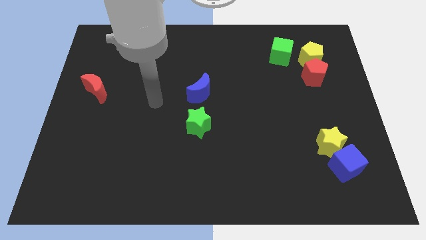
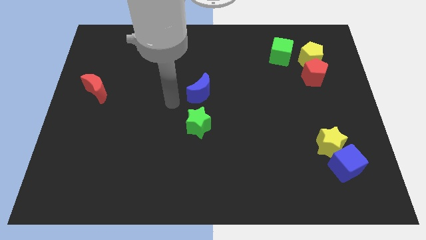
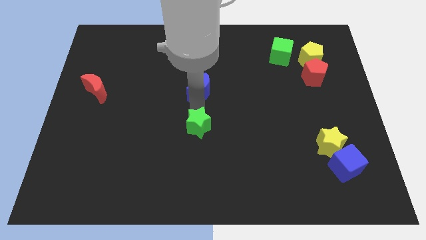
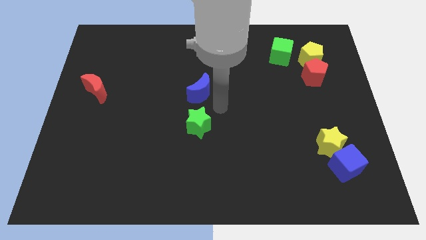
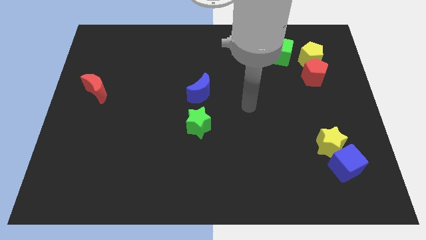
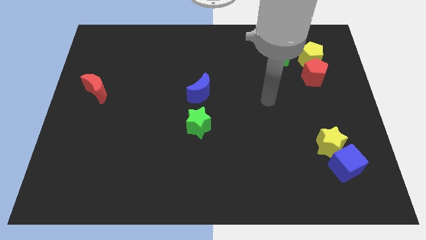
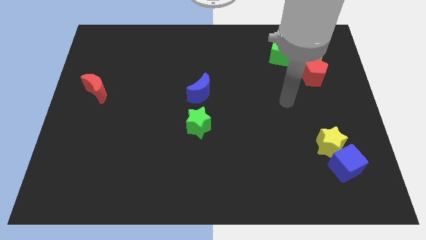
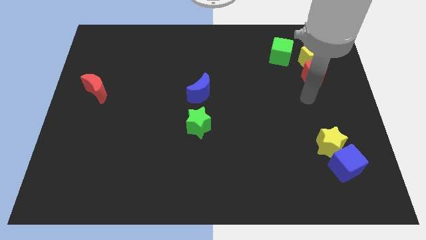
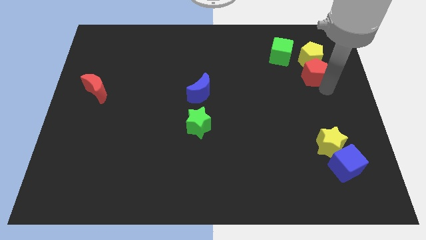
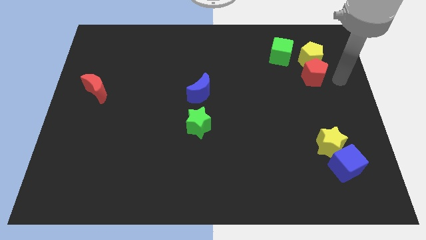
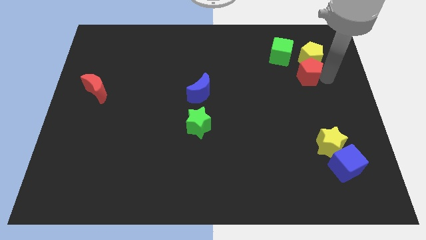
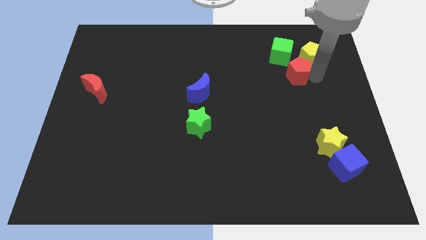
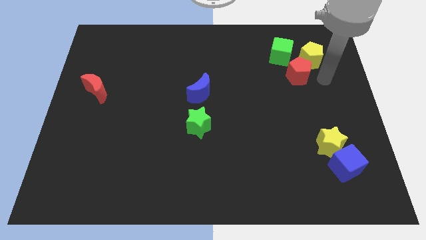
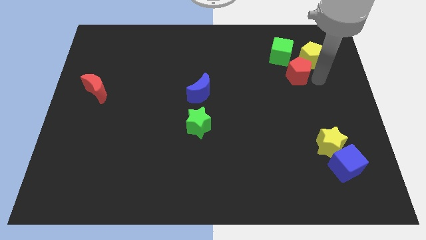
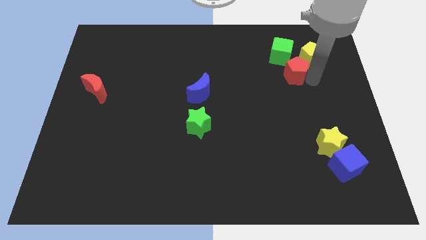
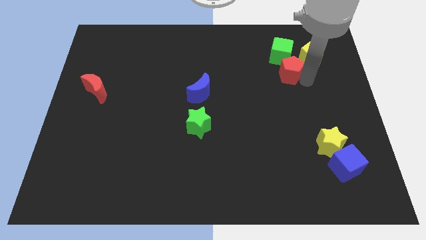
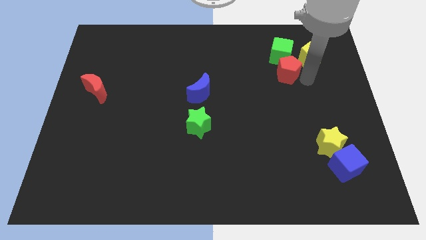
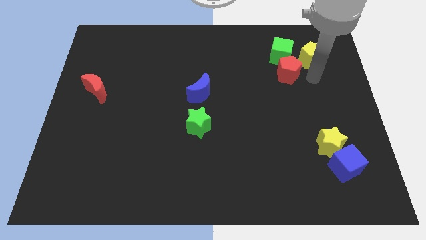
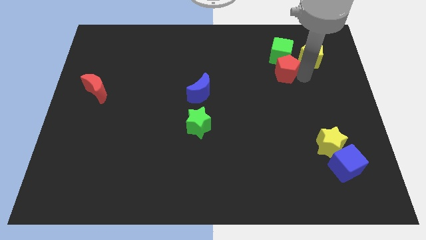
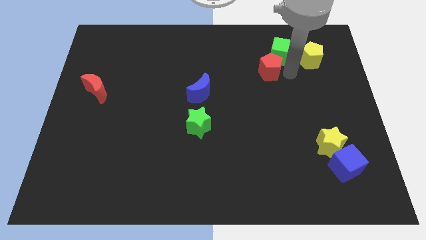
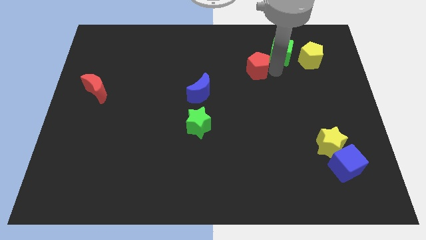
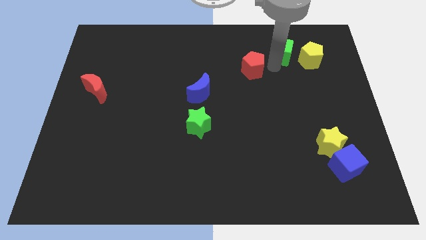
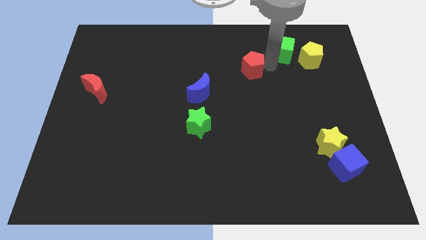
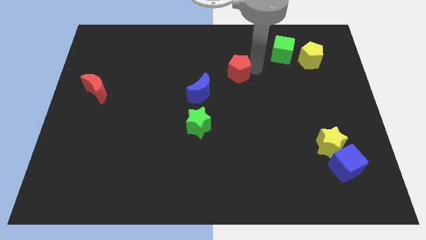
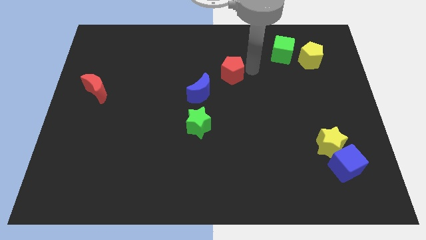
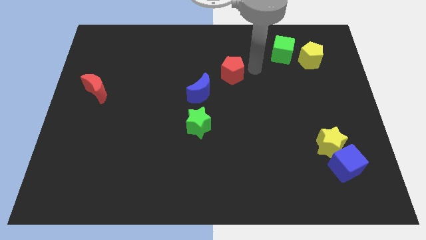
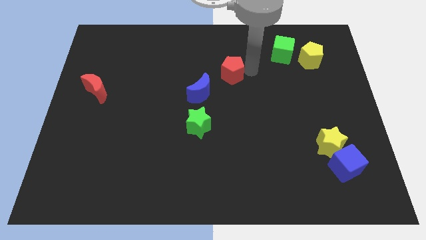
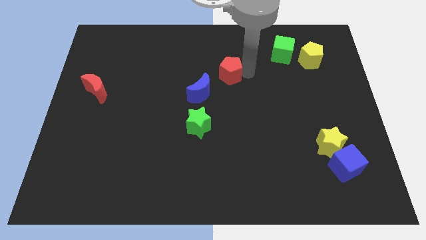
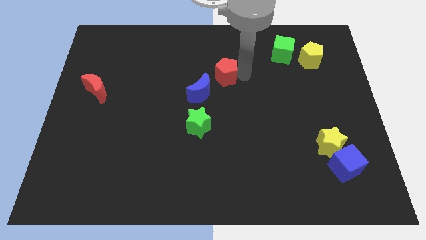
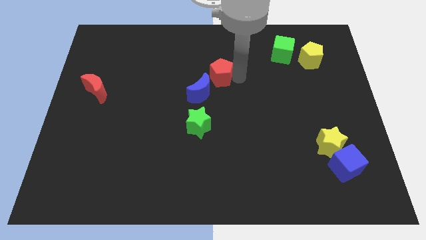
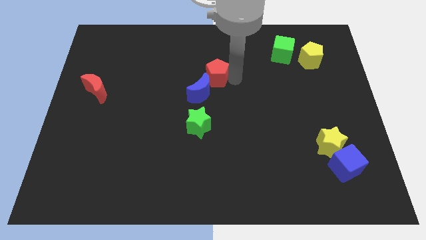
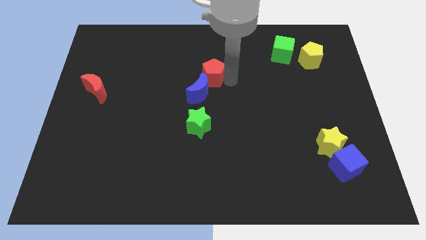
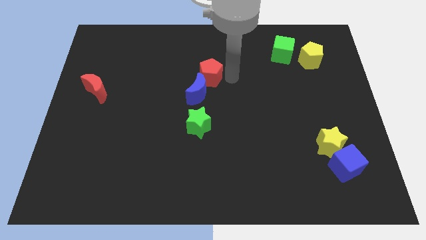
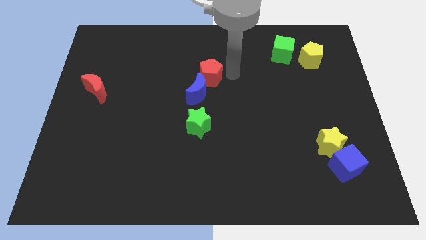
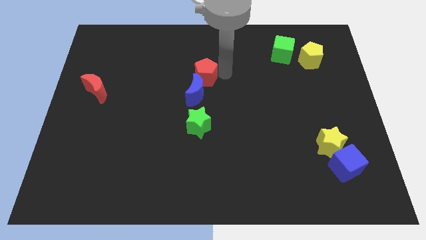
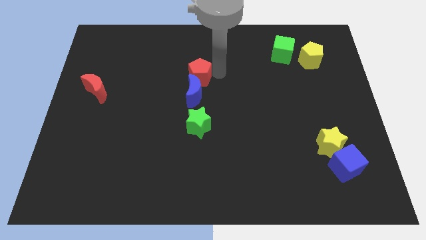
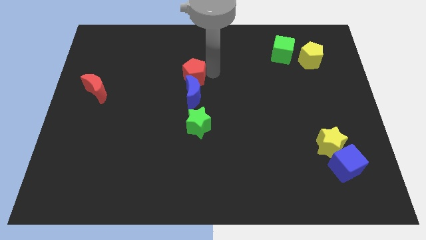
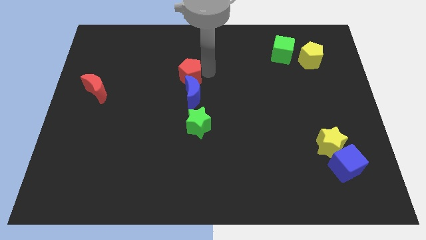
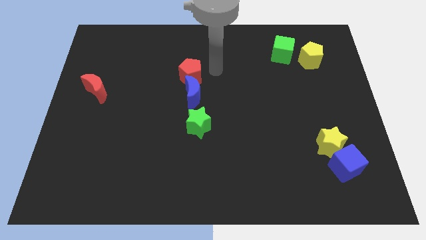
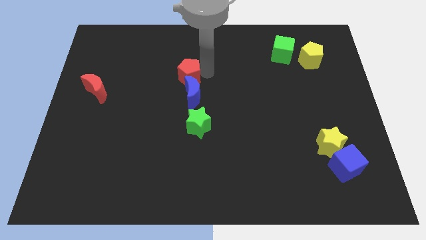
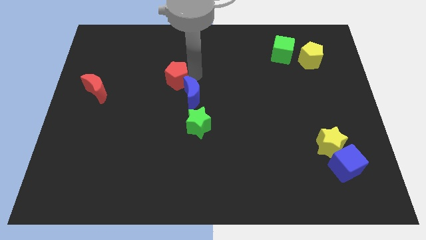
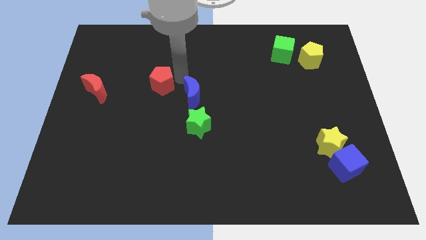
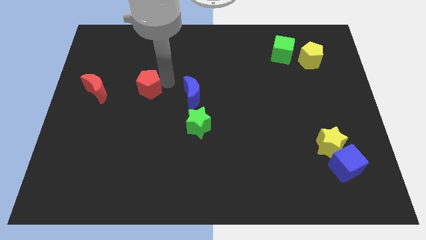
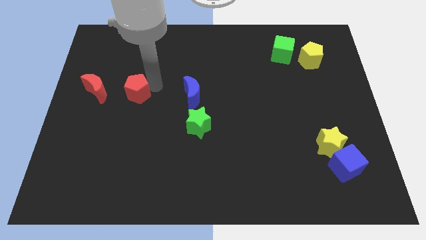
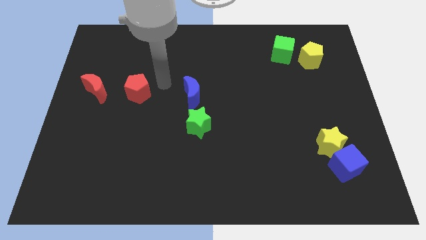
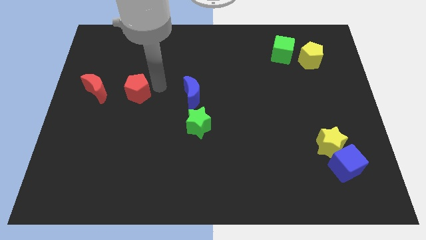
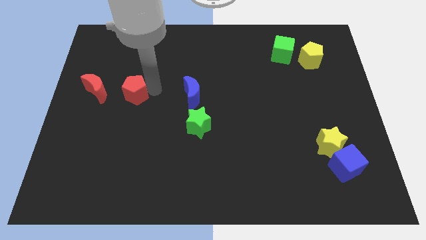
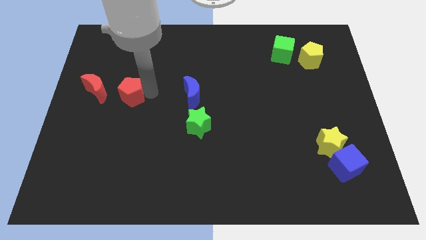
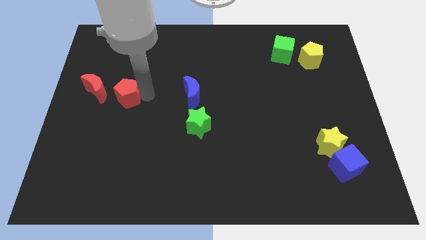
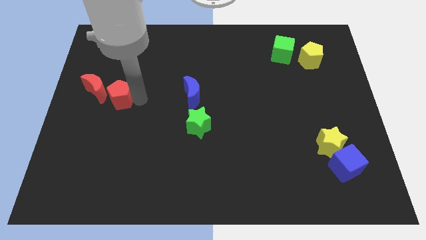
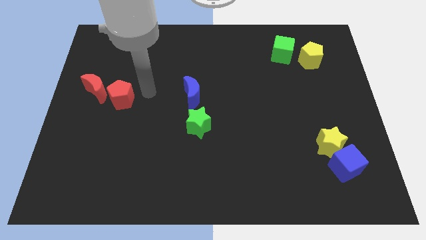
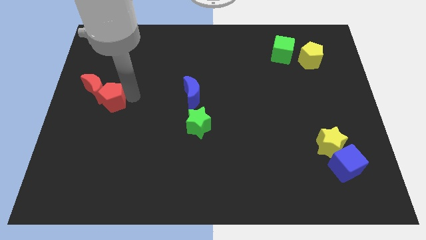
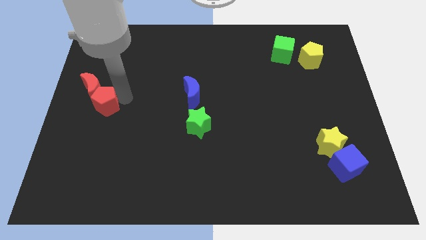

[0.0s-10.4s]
slide the red pentagon to the left side
